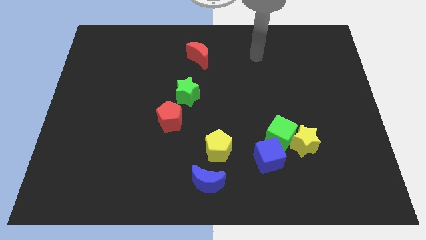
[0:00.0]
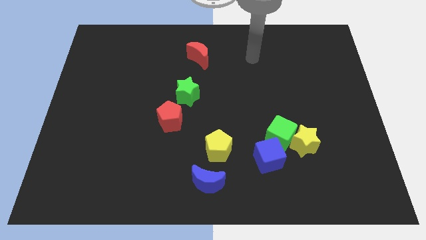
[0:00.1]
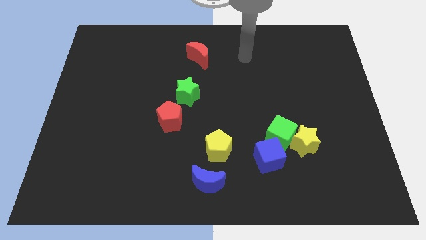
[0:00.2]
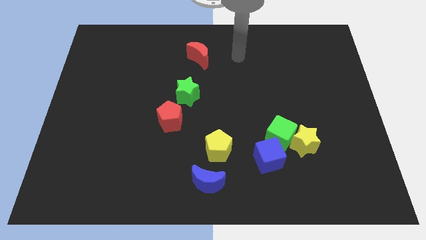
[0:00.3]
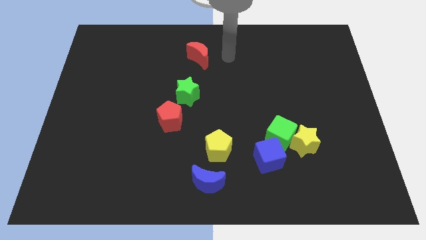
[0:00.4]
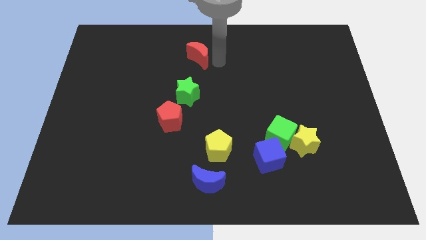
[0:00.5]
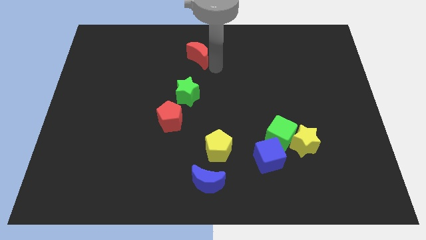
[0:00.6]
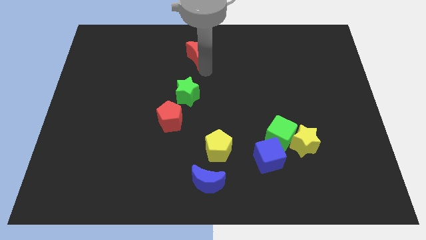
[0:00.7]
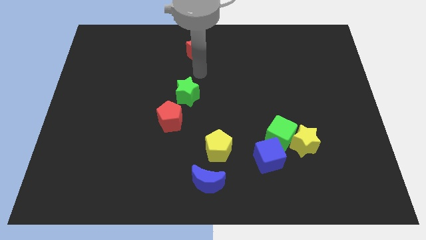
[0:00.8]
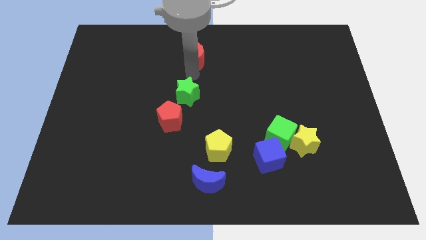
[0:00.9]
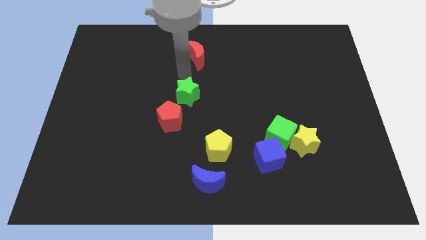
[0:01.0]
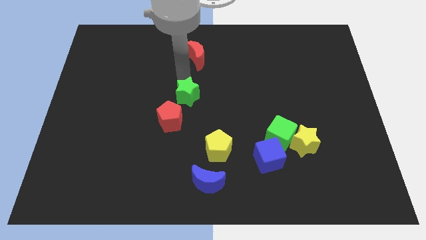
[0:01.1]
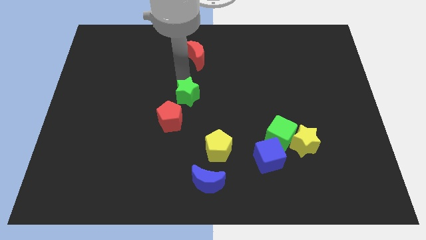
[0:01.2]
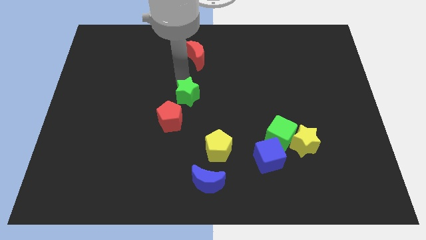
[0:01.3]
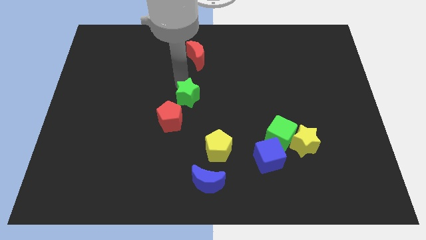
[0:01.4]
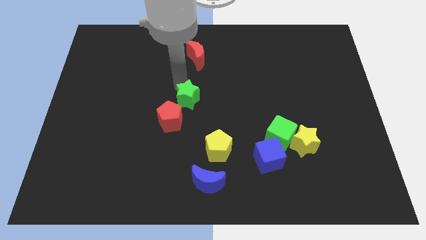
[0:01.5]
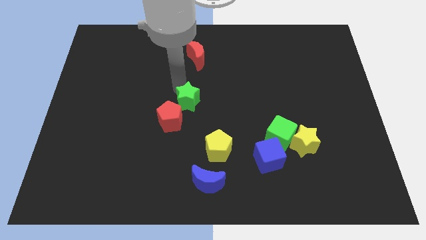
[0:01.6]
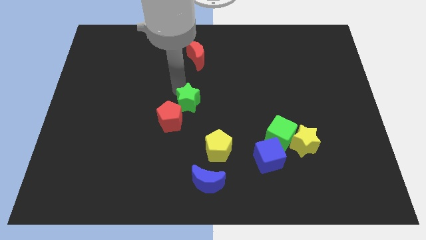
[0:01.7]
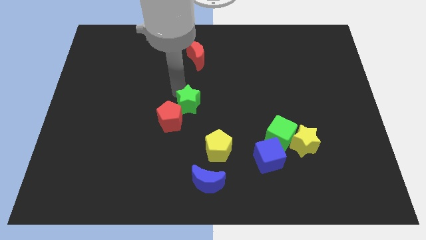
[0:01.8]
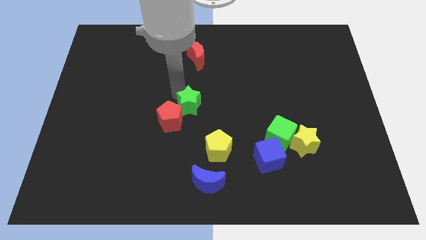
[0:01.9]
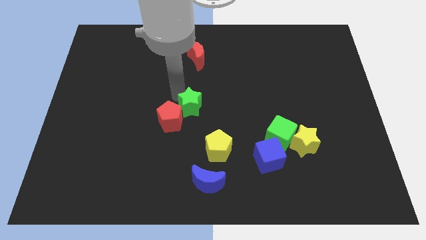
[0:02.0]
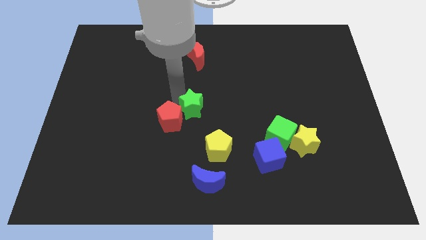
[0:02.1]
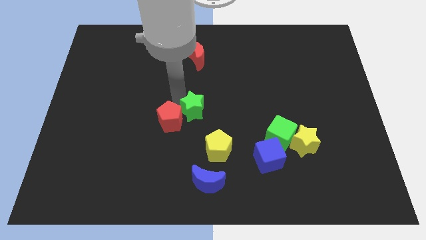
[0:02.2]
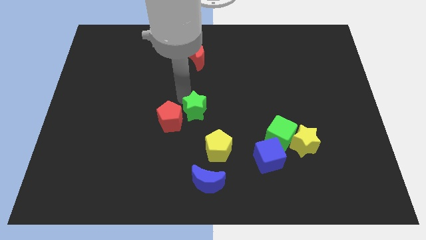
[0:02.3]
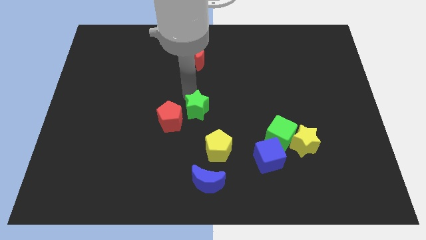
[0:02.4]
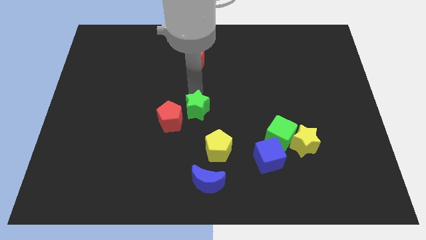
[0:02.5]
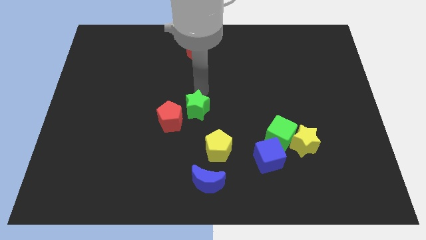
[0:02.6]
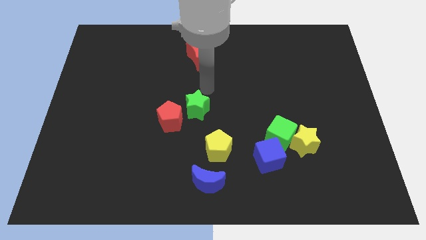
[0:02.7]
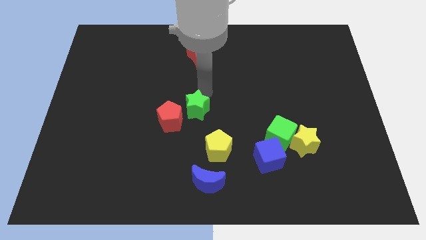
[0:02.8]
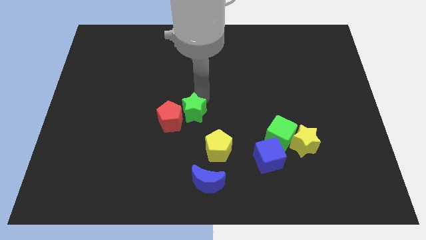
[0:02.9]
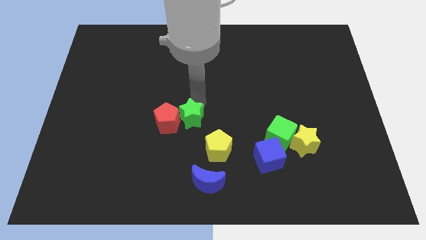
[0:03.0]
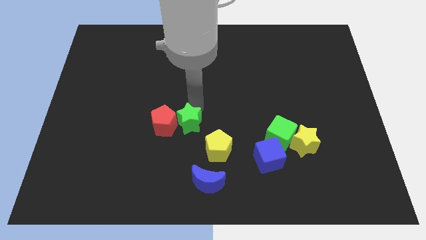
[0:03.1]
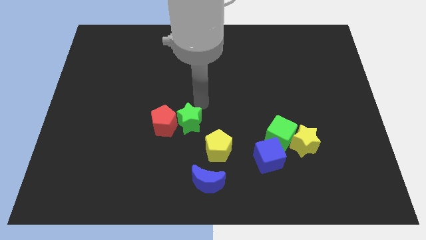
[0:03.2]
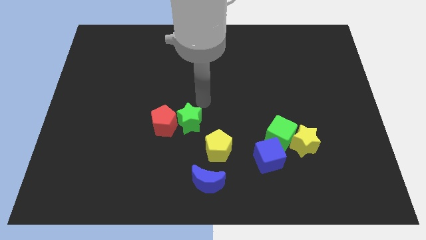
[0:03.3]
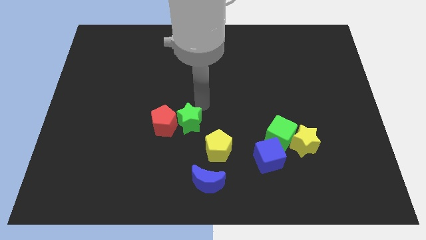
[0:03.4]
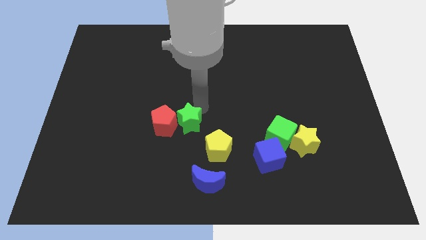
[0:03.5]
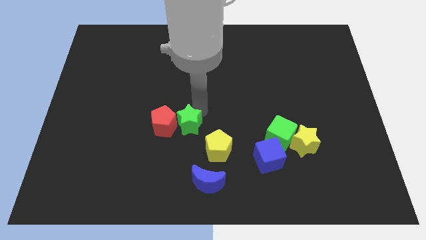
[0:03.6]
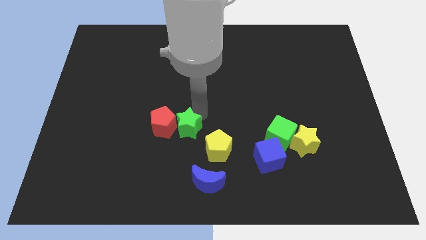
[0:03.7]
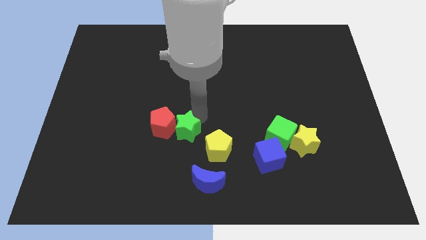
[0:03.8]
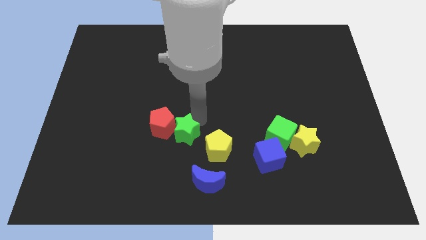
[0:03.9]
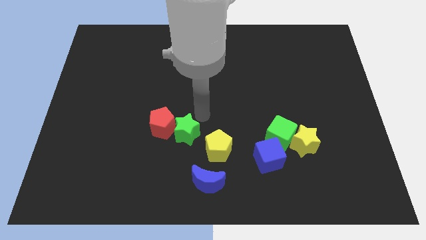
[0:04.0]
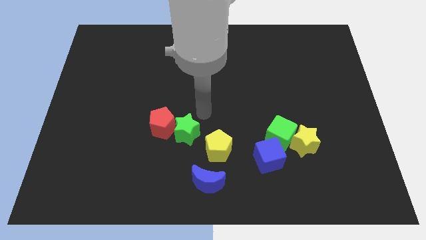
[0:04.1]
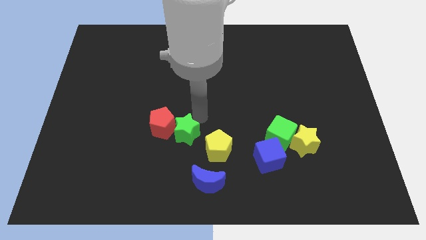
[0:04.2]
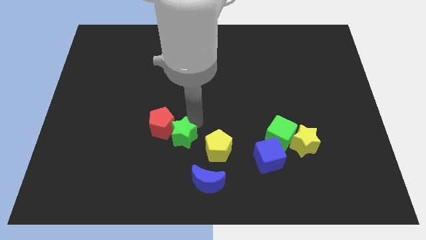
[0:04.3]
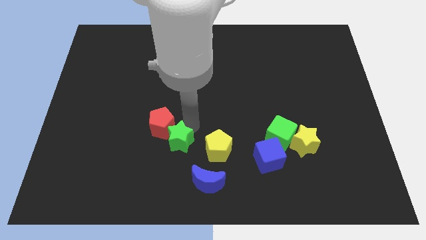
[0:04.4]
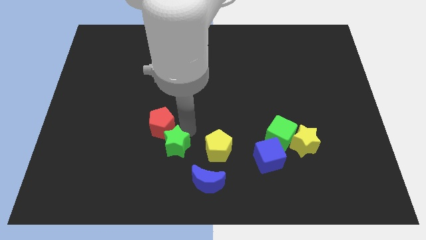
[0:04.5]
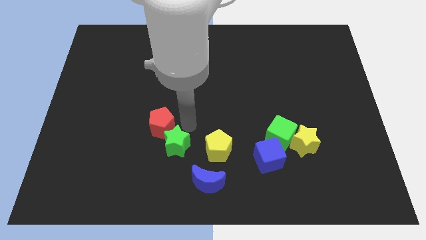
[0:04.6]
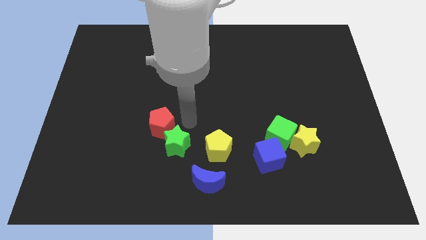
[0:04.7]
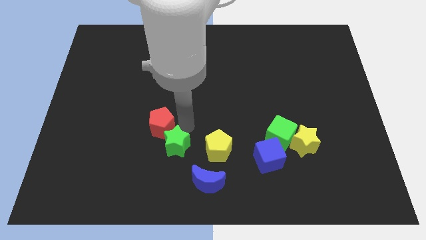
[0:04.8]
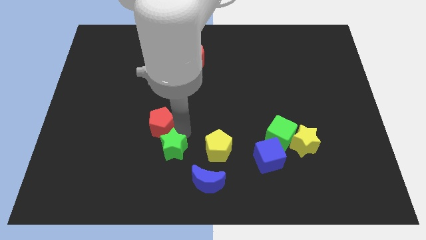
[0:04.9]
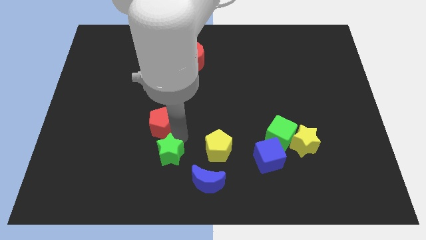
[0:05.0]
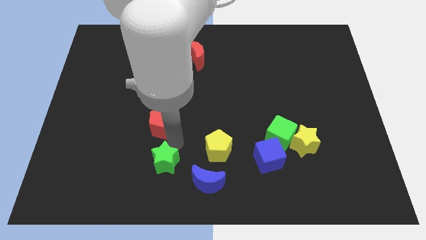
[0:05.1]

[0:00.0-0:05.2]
put the green star to the left side of the blue moon
